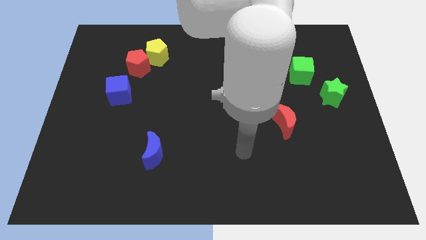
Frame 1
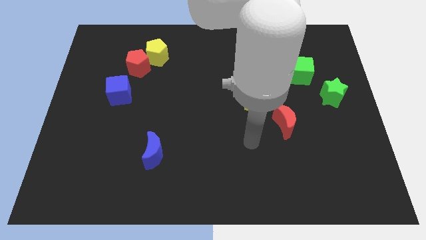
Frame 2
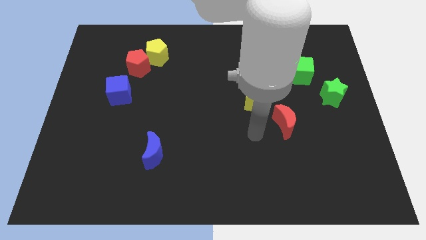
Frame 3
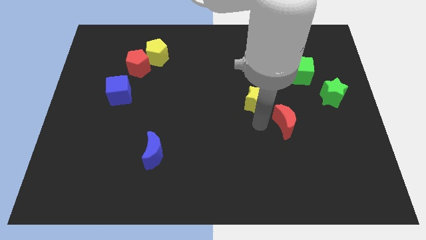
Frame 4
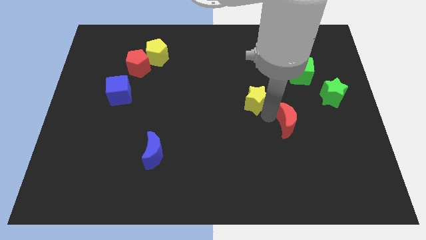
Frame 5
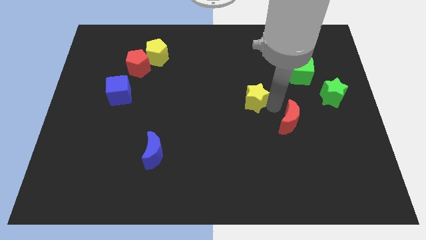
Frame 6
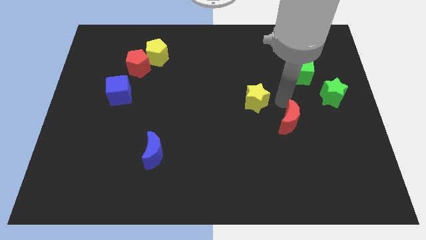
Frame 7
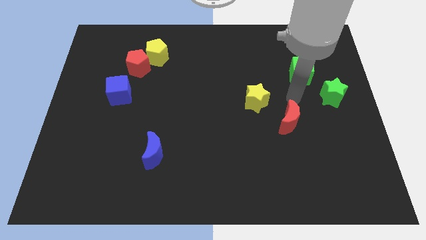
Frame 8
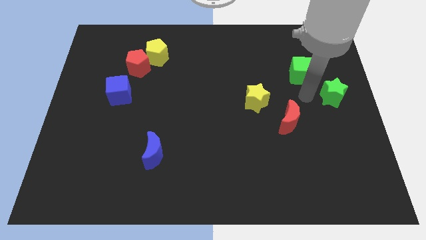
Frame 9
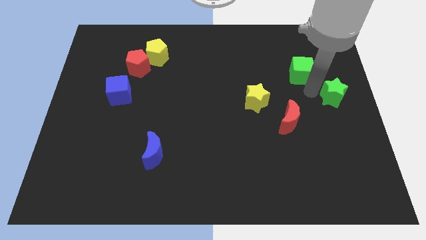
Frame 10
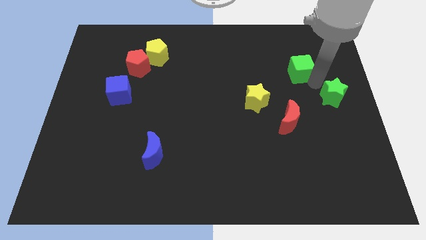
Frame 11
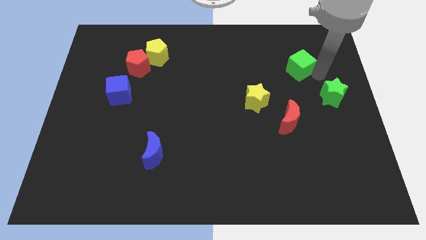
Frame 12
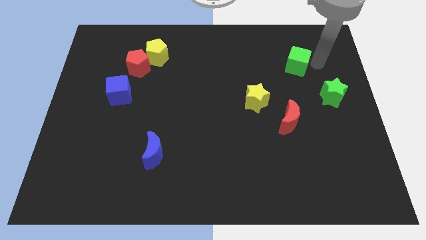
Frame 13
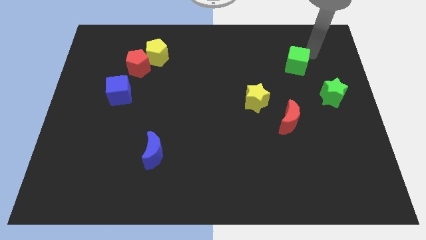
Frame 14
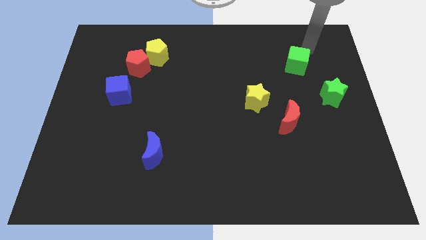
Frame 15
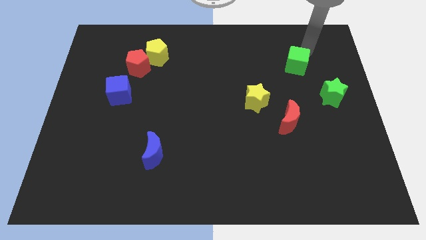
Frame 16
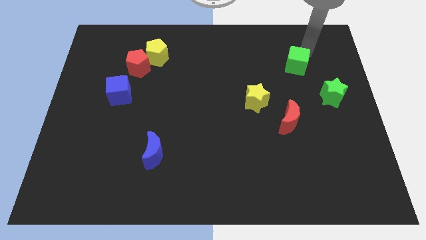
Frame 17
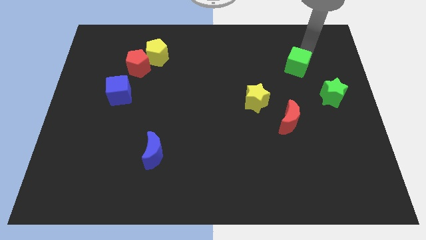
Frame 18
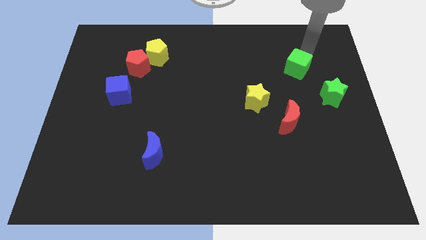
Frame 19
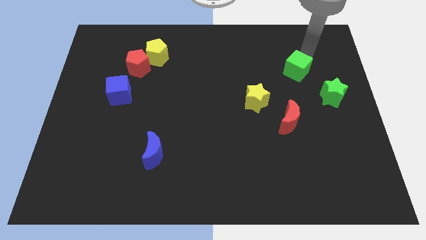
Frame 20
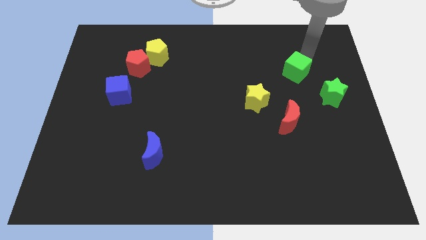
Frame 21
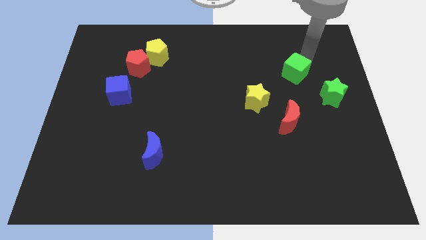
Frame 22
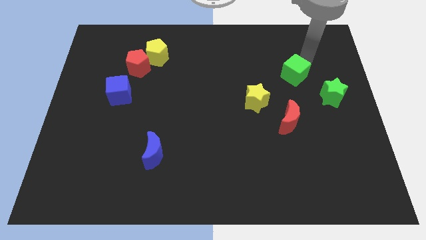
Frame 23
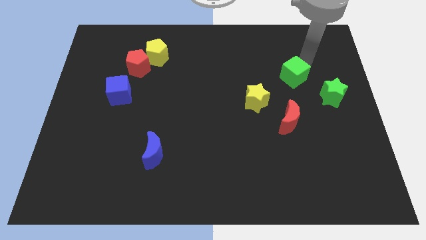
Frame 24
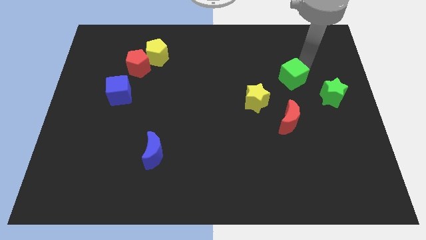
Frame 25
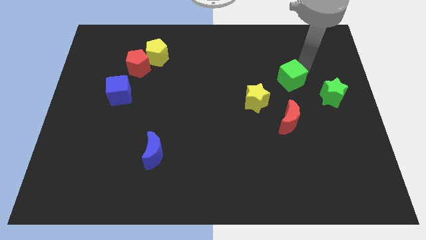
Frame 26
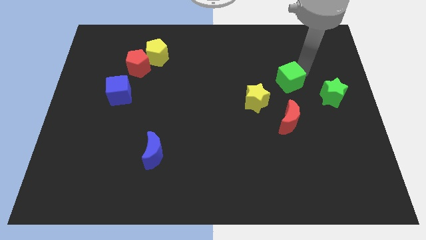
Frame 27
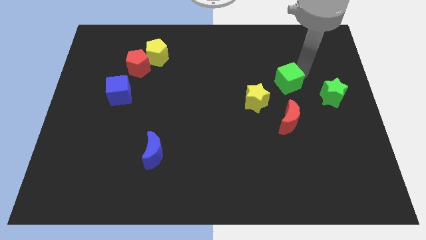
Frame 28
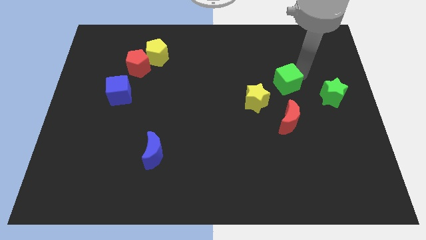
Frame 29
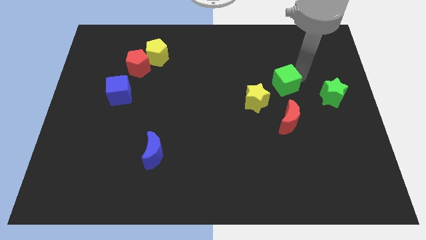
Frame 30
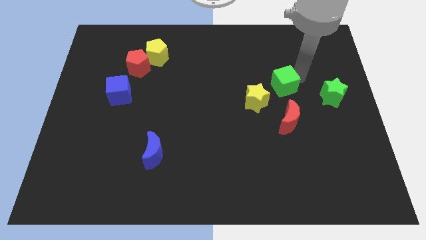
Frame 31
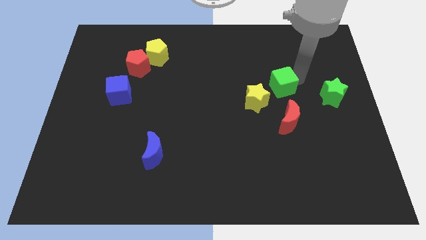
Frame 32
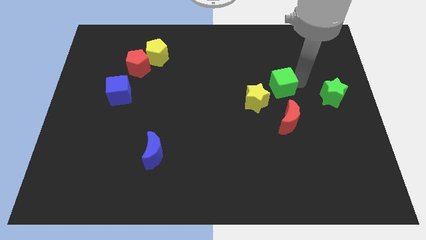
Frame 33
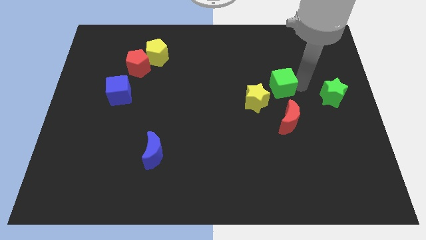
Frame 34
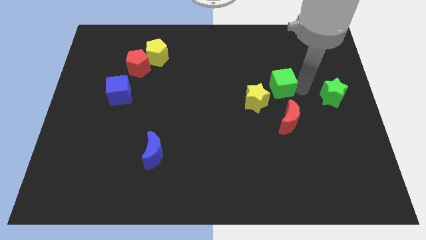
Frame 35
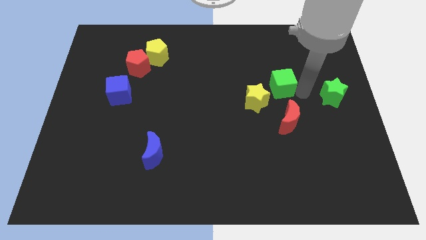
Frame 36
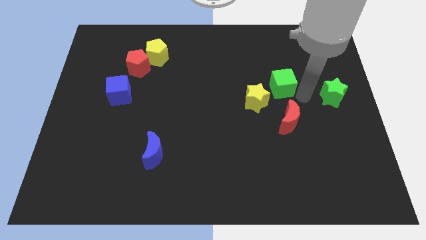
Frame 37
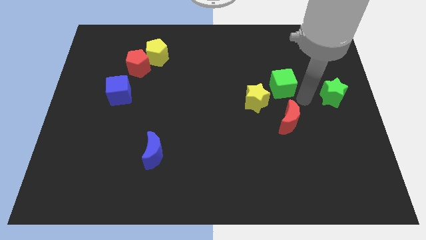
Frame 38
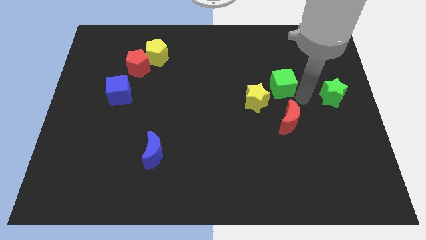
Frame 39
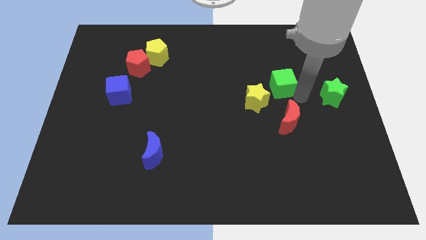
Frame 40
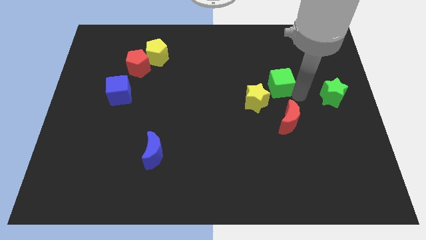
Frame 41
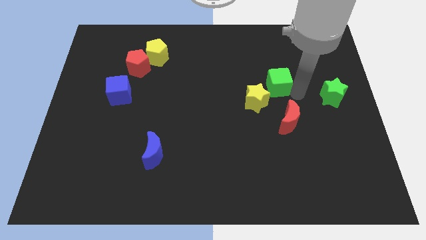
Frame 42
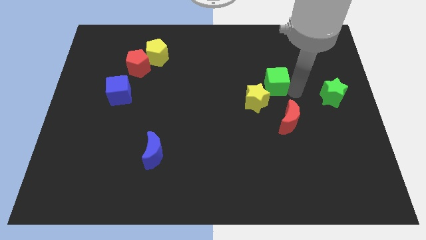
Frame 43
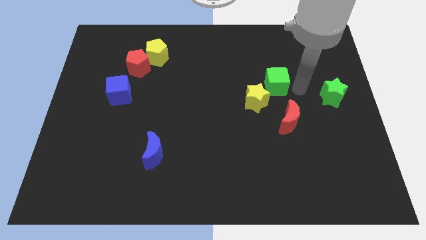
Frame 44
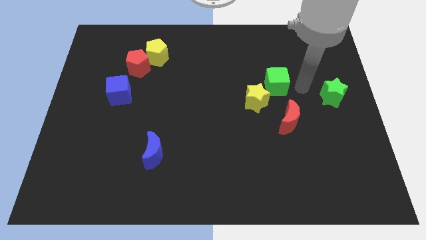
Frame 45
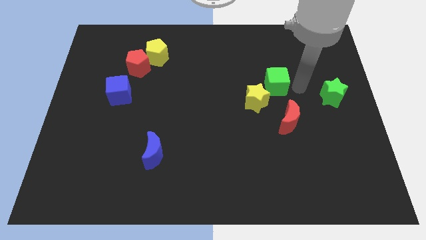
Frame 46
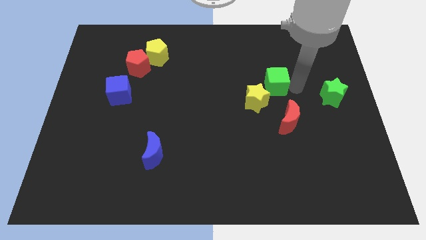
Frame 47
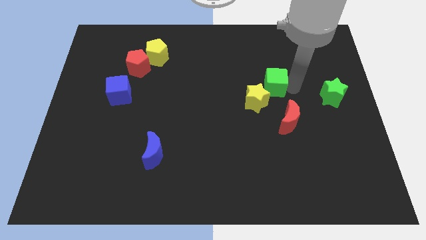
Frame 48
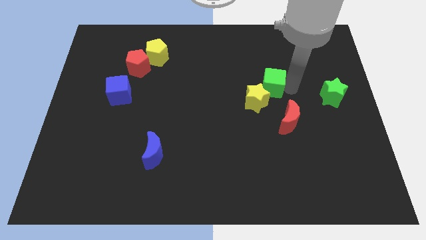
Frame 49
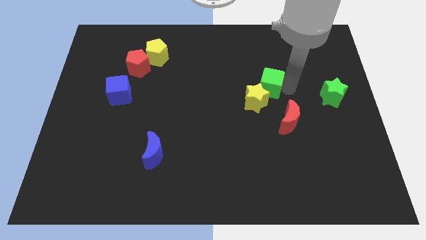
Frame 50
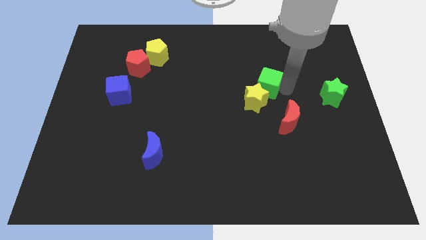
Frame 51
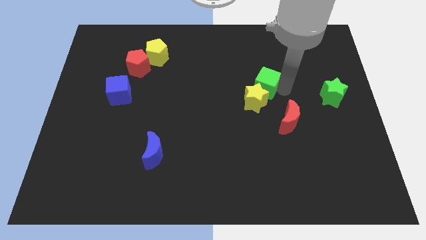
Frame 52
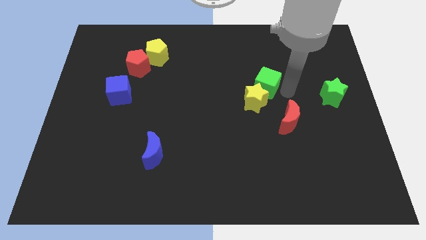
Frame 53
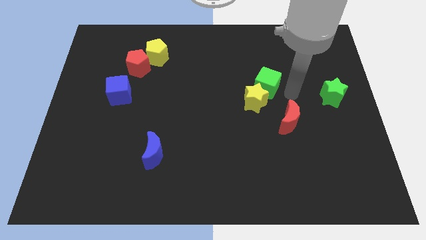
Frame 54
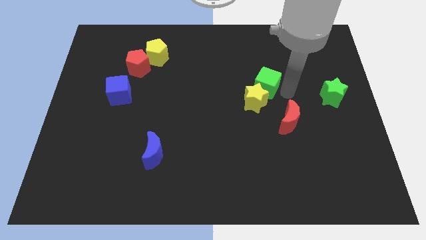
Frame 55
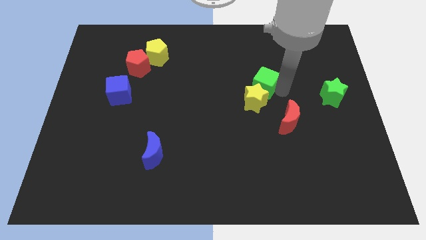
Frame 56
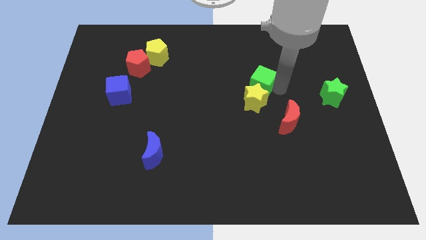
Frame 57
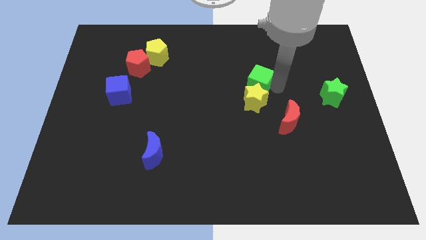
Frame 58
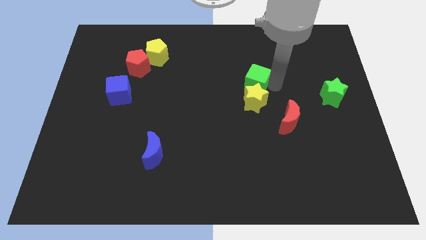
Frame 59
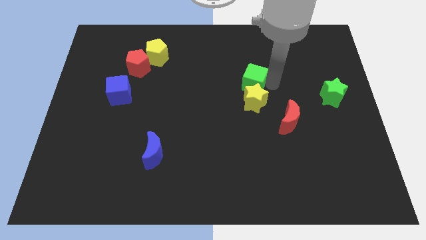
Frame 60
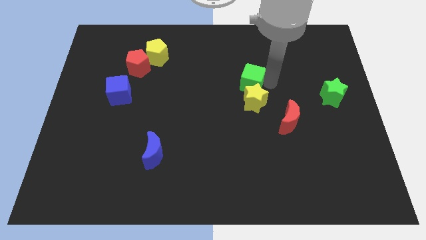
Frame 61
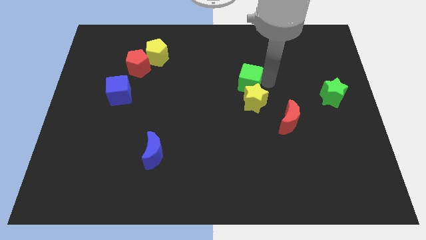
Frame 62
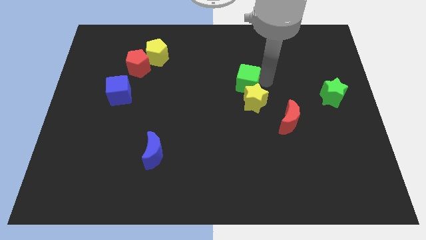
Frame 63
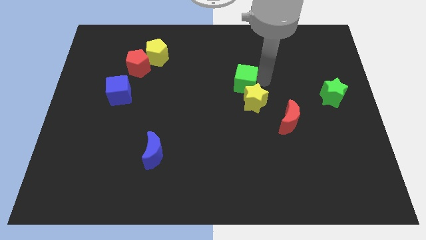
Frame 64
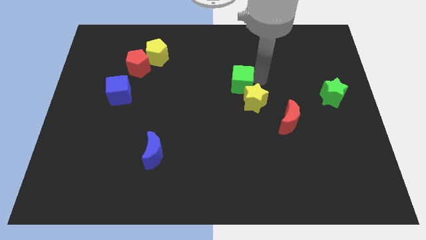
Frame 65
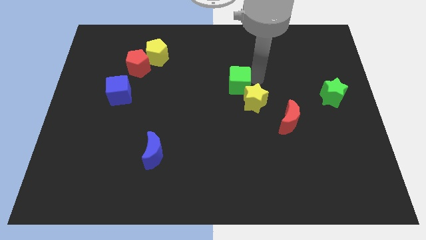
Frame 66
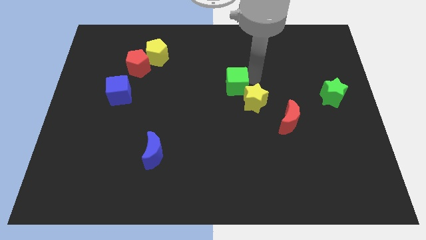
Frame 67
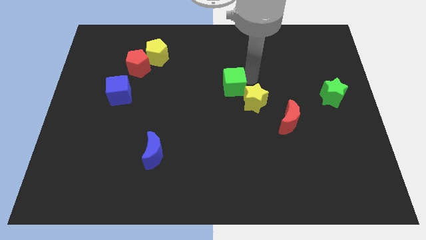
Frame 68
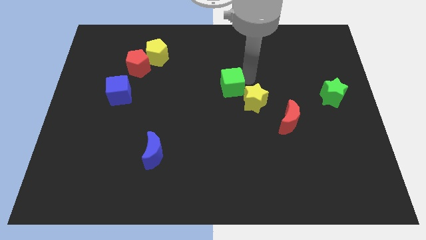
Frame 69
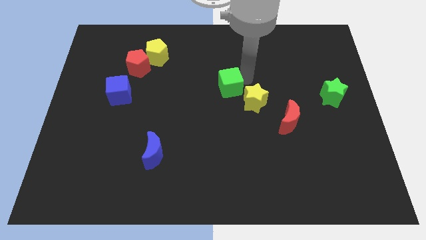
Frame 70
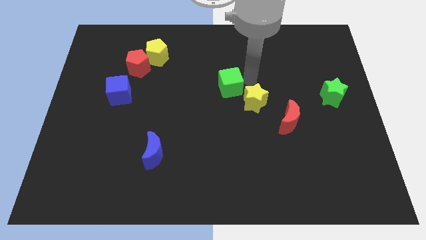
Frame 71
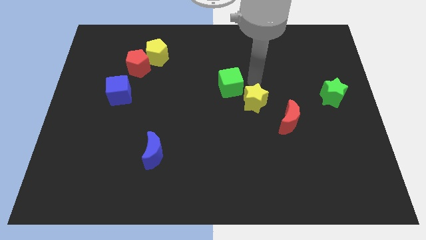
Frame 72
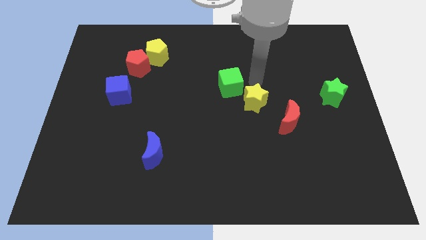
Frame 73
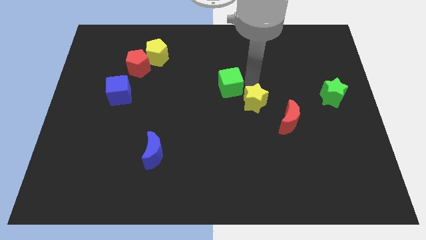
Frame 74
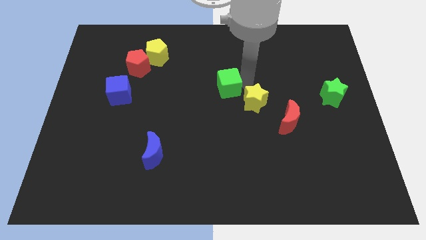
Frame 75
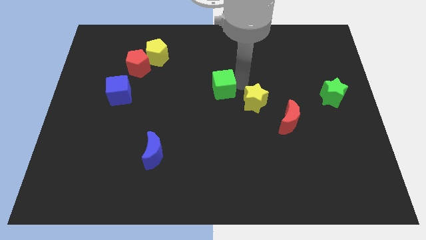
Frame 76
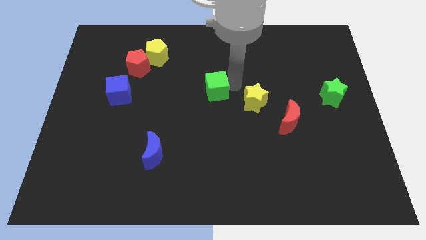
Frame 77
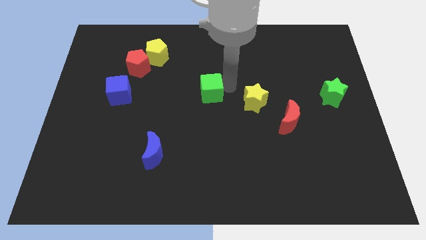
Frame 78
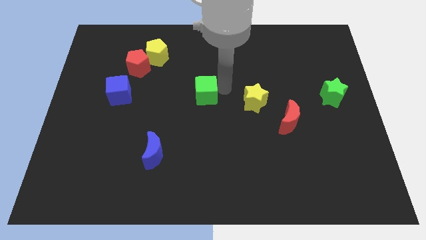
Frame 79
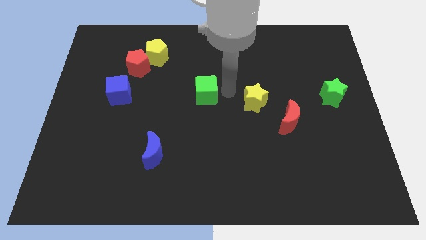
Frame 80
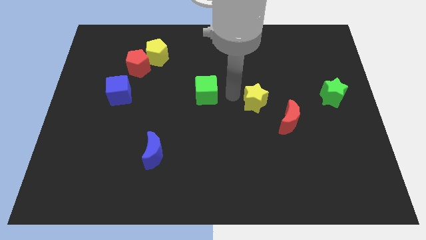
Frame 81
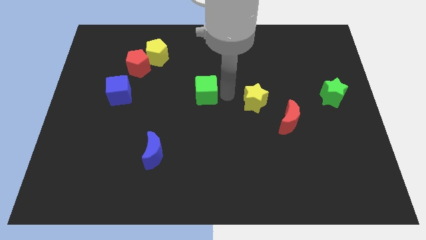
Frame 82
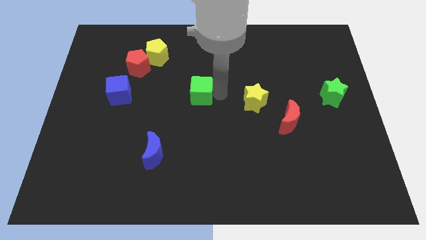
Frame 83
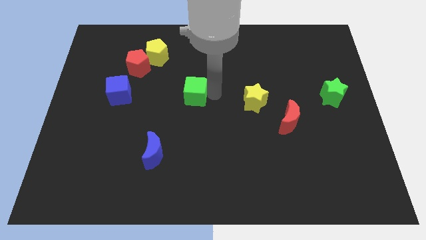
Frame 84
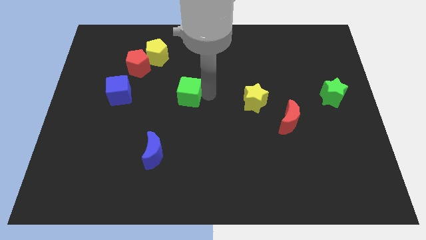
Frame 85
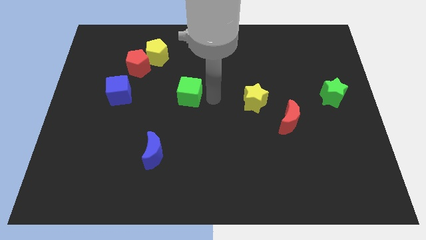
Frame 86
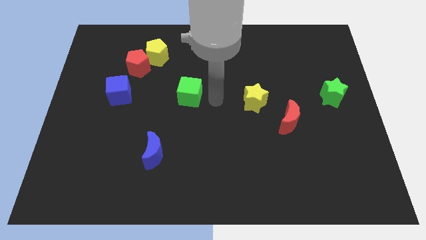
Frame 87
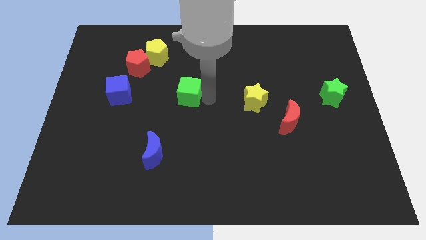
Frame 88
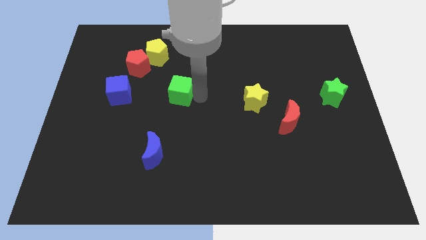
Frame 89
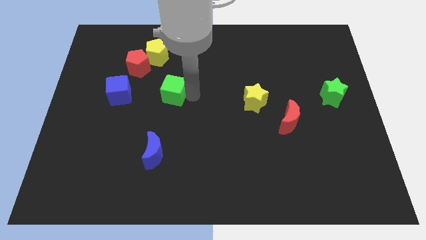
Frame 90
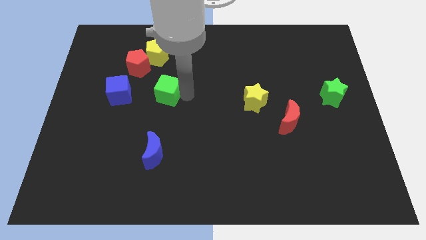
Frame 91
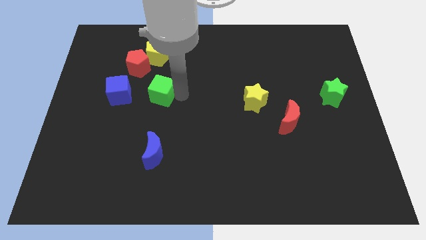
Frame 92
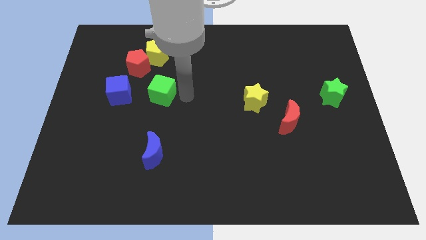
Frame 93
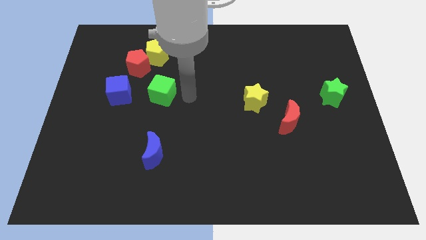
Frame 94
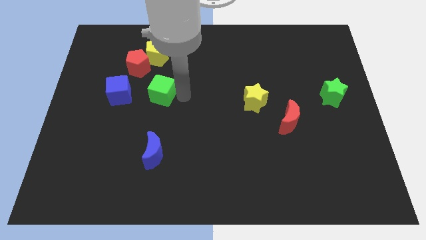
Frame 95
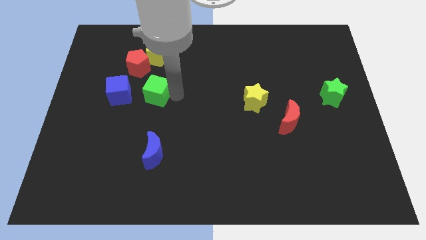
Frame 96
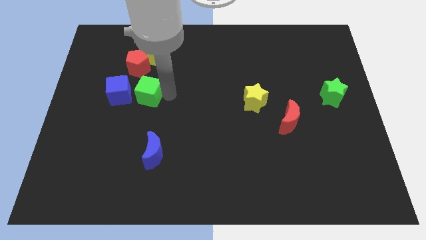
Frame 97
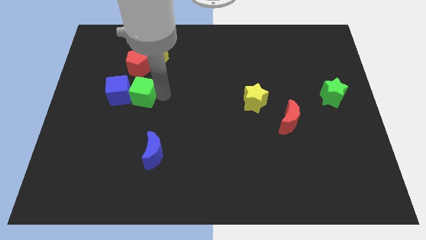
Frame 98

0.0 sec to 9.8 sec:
push the green cube next to the blue cube
